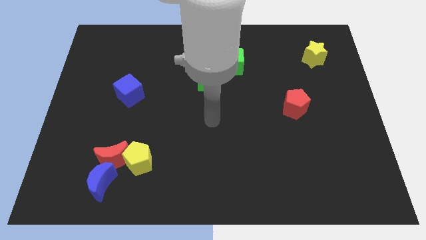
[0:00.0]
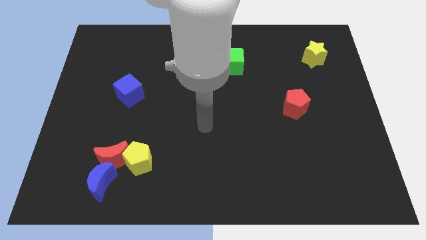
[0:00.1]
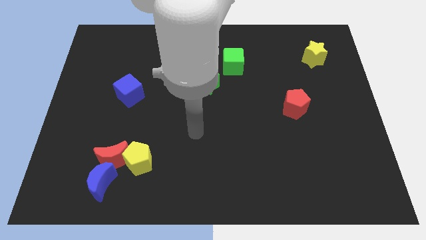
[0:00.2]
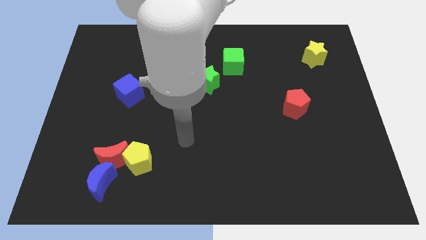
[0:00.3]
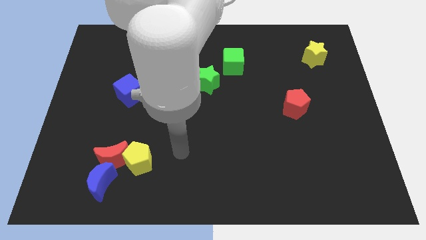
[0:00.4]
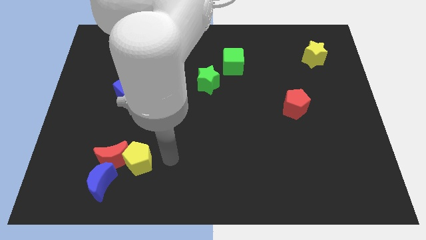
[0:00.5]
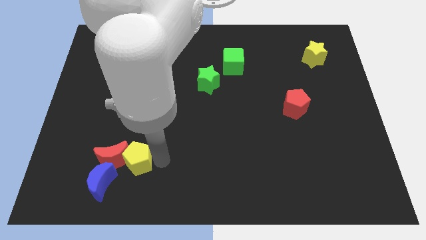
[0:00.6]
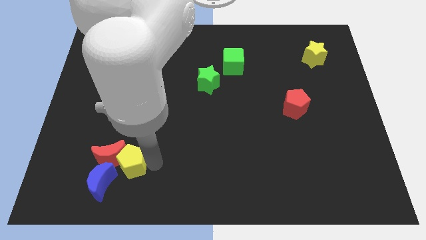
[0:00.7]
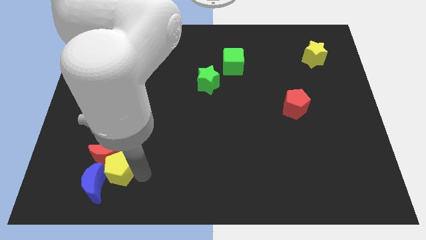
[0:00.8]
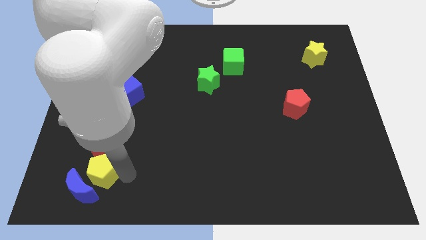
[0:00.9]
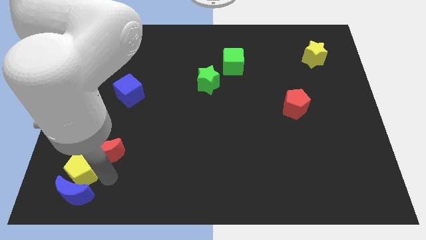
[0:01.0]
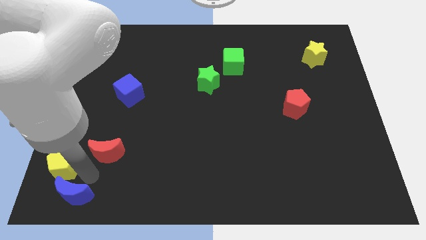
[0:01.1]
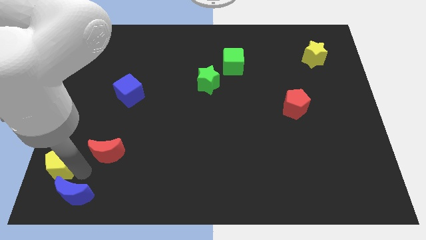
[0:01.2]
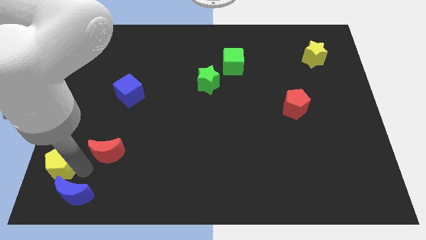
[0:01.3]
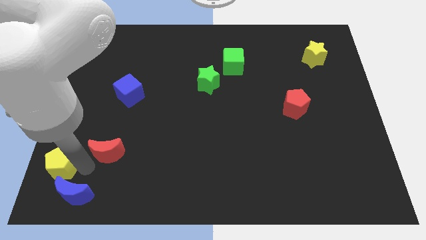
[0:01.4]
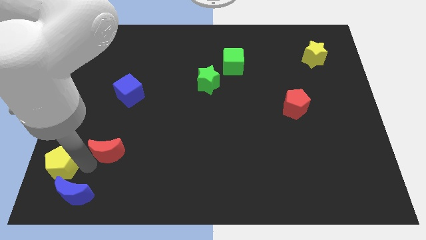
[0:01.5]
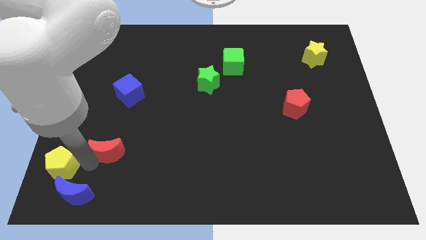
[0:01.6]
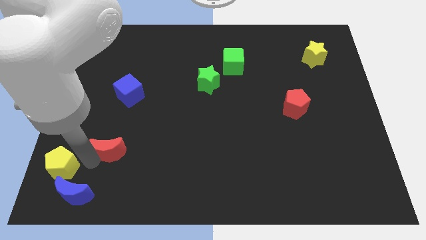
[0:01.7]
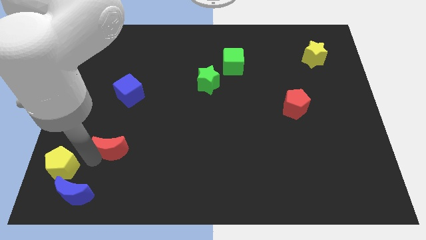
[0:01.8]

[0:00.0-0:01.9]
move the red moon away from the yellow pentagon and blue moon

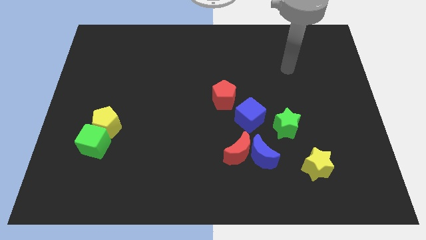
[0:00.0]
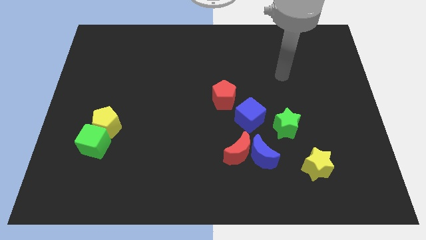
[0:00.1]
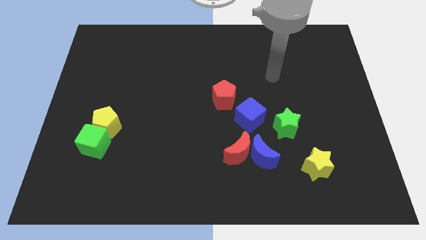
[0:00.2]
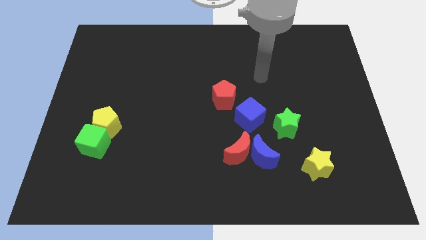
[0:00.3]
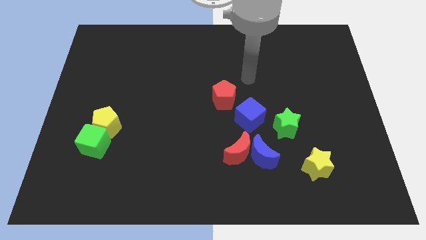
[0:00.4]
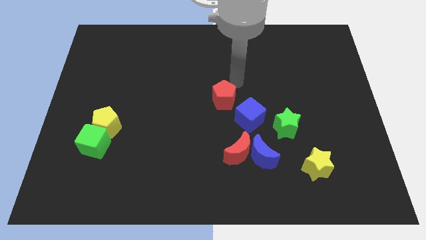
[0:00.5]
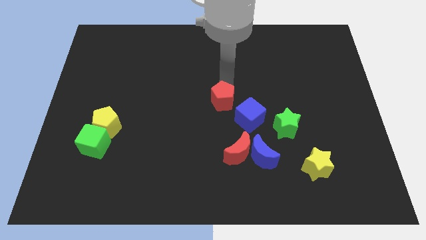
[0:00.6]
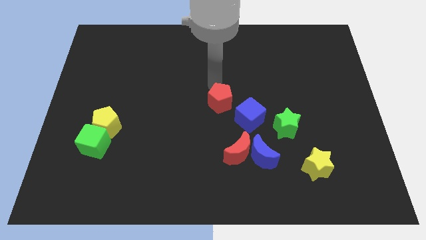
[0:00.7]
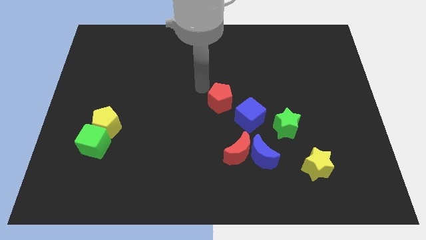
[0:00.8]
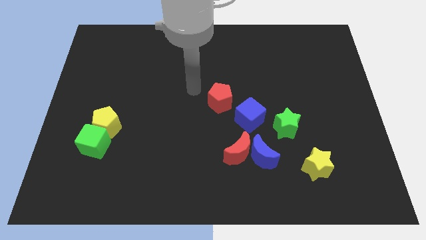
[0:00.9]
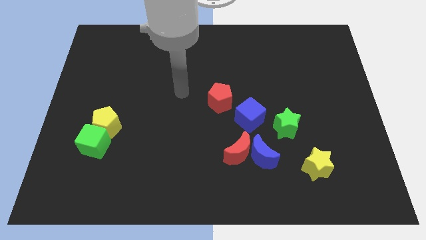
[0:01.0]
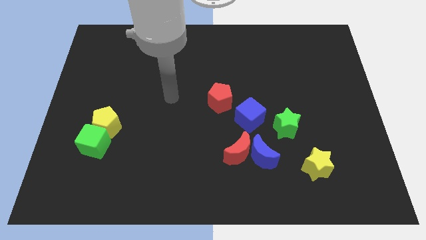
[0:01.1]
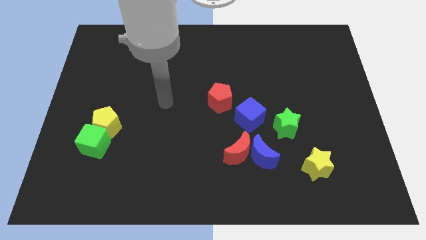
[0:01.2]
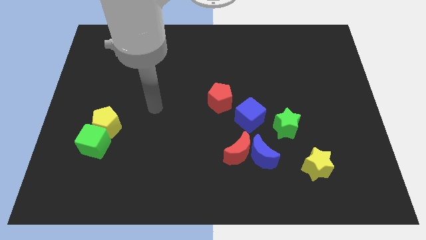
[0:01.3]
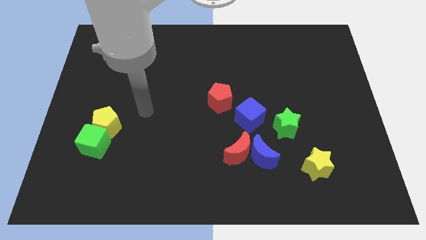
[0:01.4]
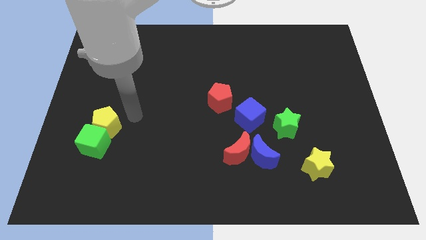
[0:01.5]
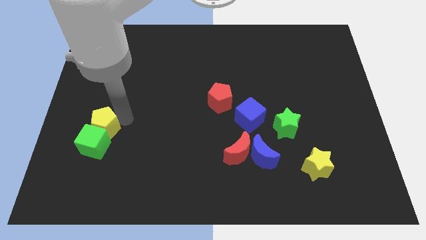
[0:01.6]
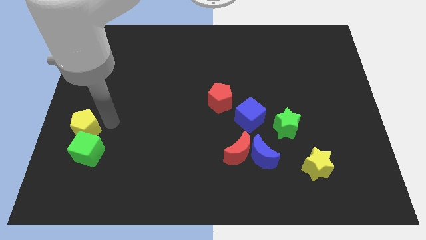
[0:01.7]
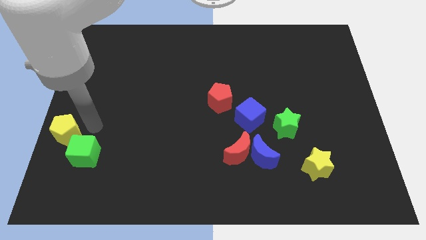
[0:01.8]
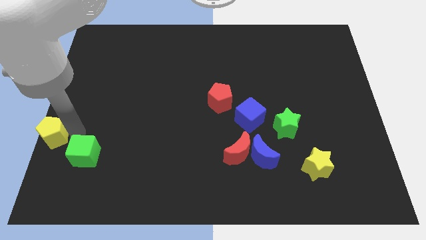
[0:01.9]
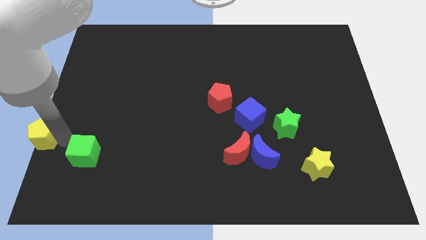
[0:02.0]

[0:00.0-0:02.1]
separate the green cube from the yellow pentagon

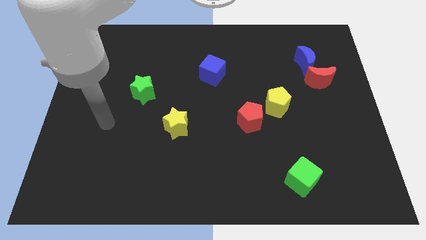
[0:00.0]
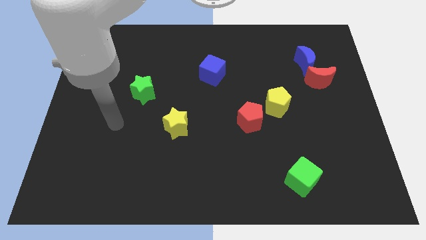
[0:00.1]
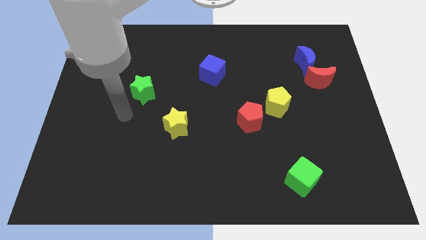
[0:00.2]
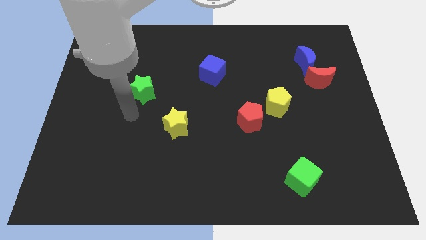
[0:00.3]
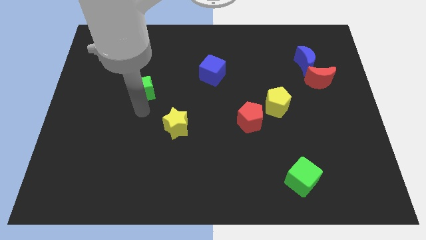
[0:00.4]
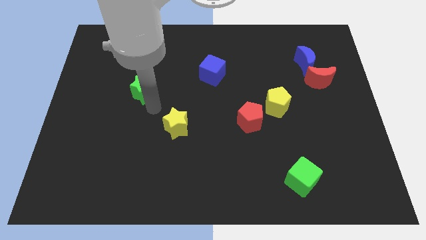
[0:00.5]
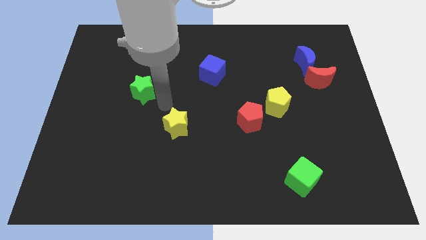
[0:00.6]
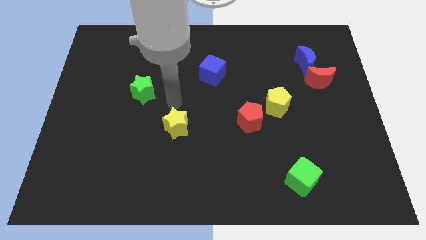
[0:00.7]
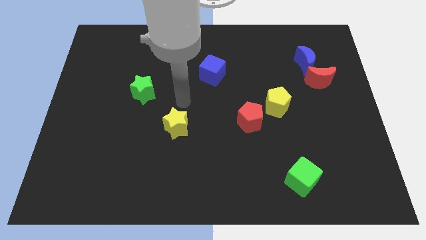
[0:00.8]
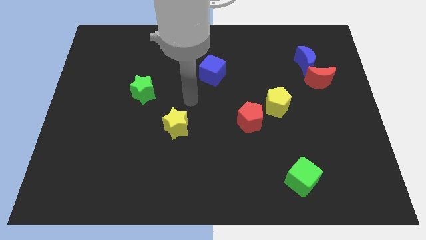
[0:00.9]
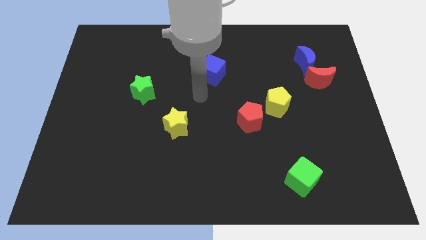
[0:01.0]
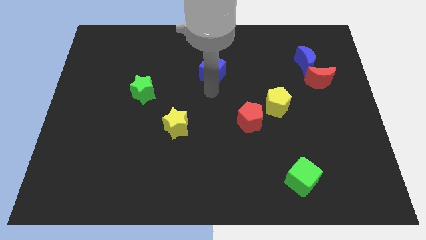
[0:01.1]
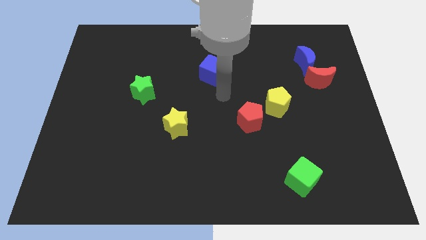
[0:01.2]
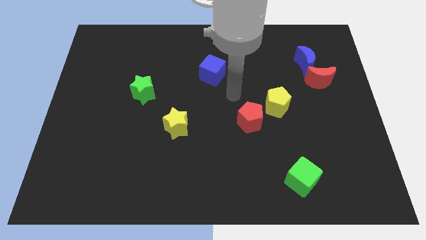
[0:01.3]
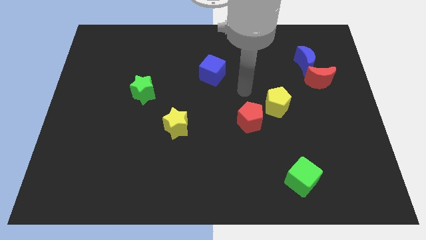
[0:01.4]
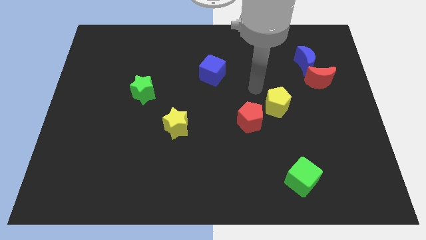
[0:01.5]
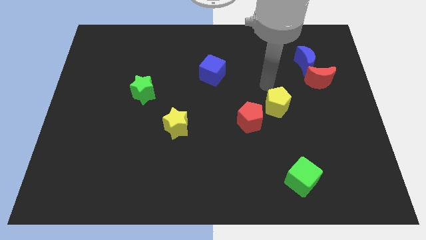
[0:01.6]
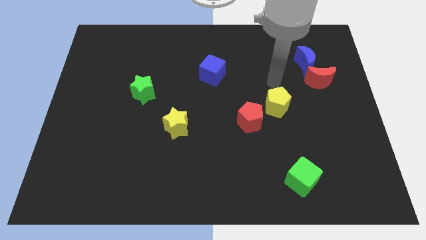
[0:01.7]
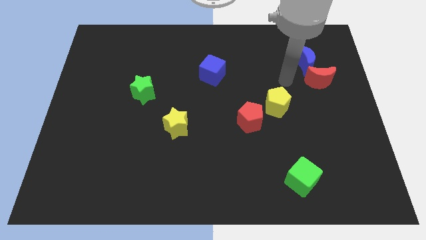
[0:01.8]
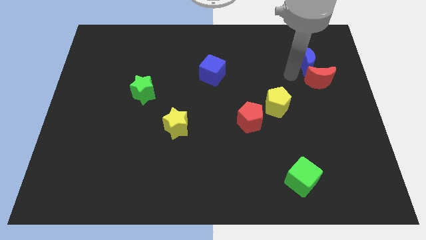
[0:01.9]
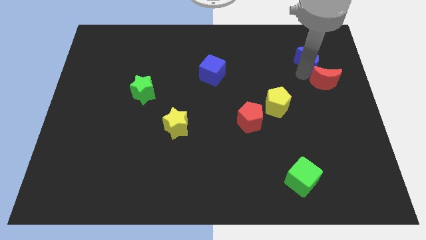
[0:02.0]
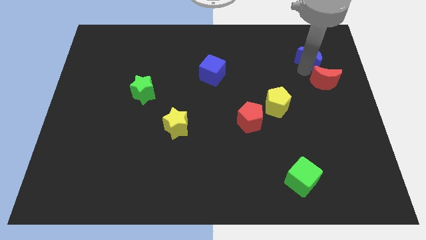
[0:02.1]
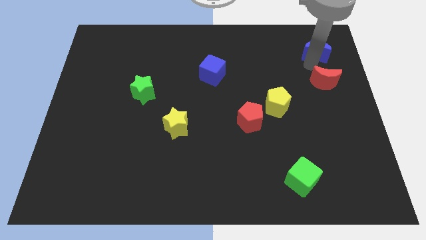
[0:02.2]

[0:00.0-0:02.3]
move the red moon away from the blue moon

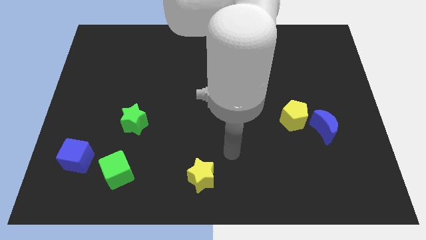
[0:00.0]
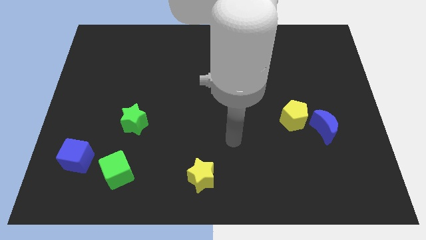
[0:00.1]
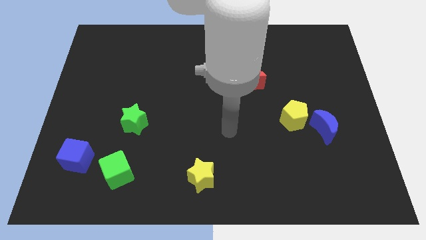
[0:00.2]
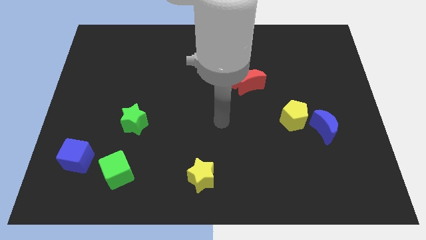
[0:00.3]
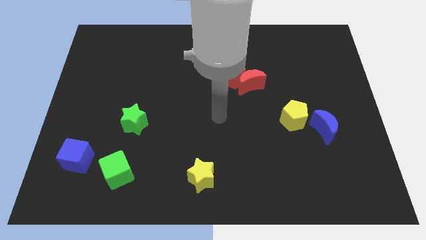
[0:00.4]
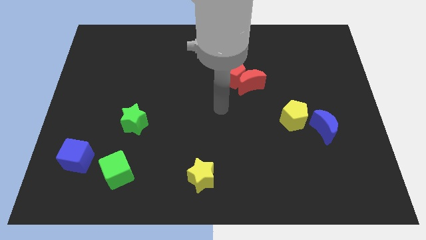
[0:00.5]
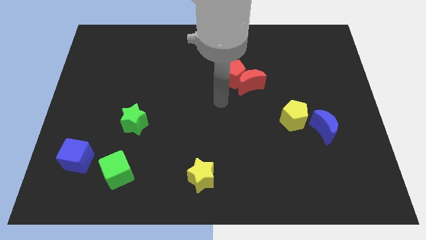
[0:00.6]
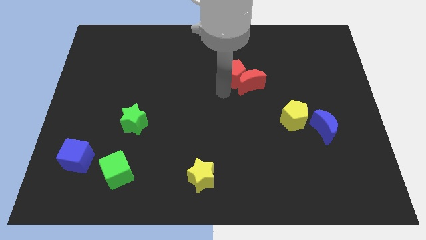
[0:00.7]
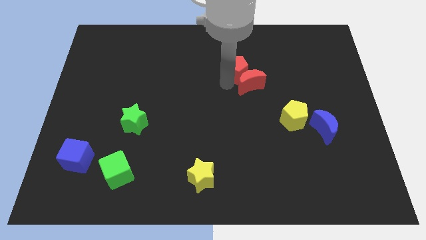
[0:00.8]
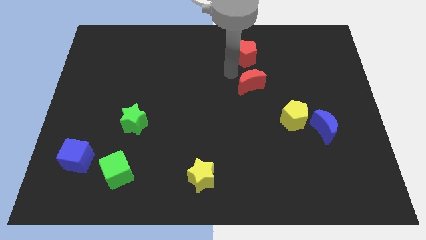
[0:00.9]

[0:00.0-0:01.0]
pull the red moon apart from the red pentagon

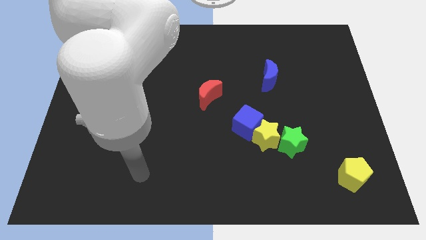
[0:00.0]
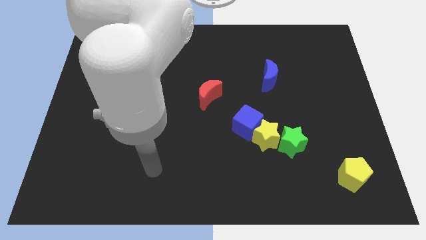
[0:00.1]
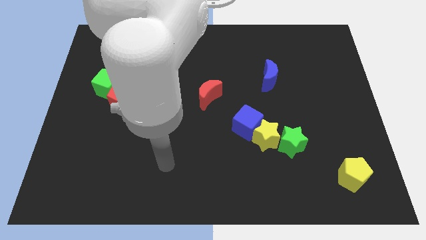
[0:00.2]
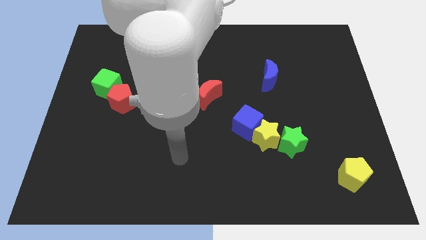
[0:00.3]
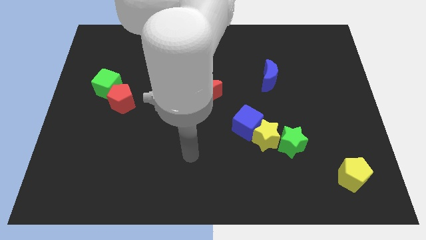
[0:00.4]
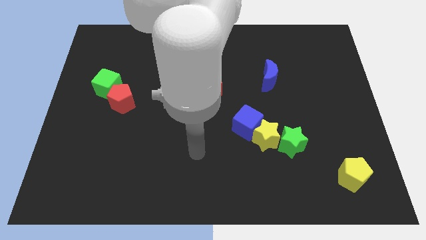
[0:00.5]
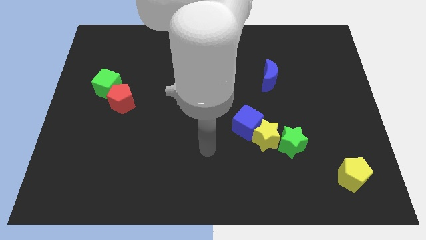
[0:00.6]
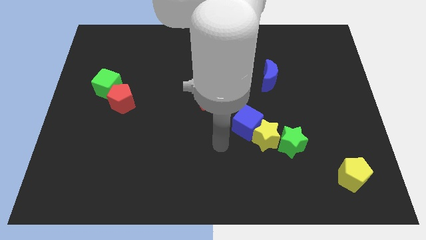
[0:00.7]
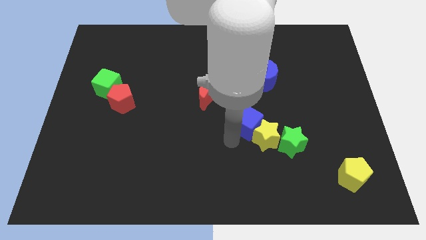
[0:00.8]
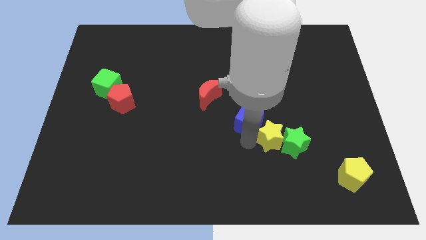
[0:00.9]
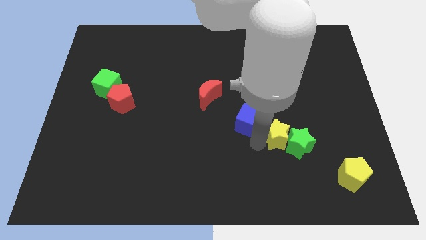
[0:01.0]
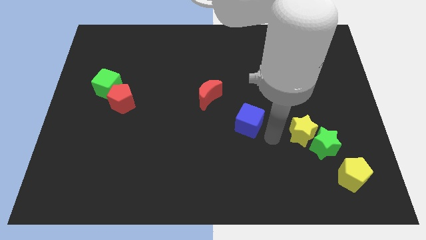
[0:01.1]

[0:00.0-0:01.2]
move the blue cube away from the yellow star

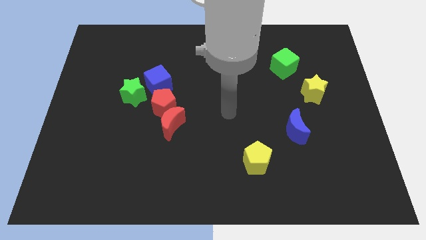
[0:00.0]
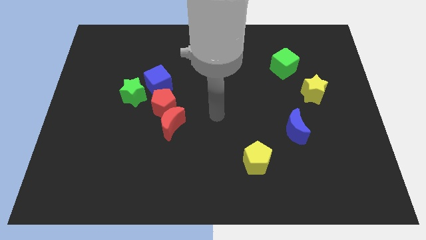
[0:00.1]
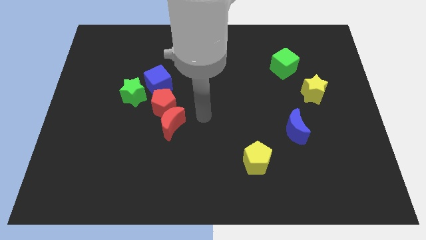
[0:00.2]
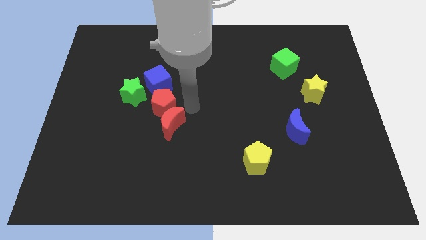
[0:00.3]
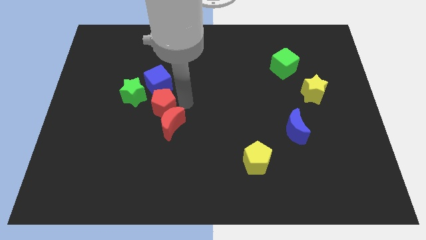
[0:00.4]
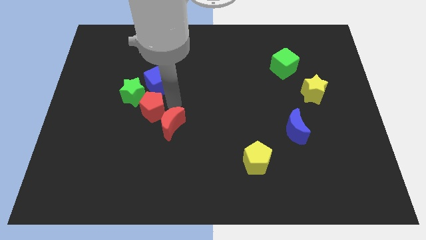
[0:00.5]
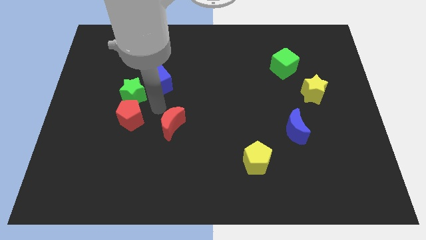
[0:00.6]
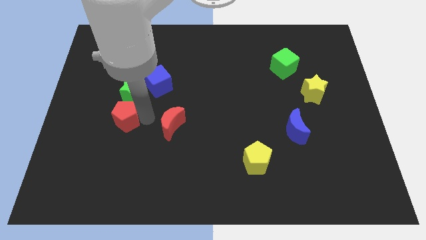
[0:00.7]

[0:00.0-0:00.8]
move the red moon away from the red pentagon

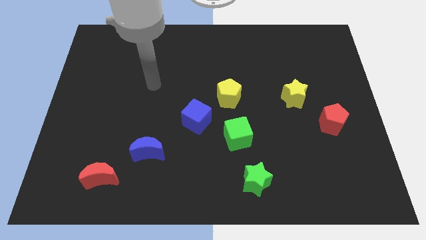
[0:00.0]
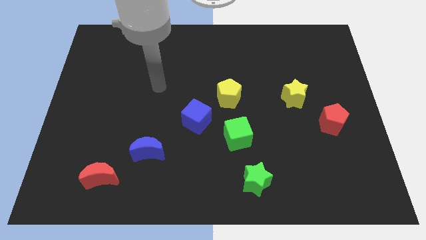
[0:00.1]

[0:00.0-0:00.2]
separate the yellow pentagon from the blue cube
